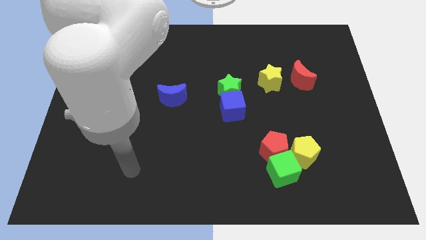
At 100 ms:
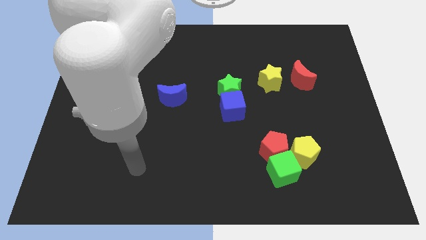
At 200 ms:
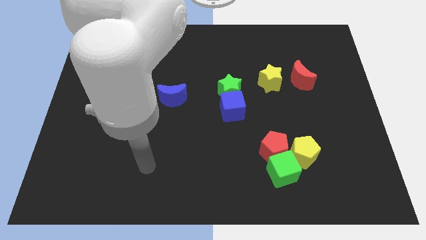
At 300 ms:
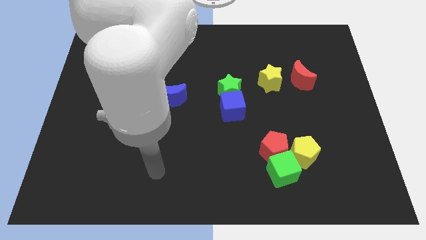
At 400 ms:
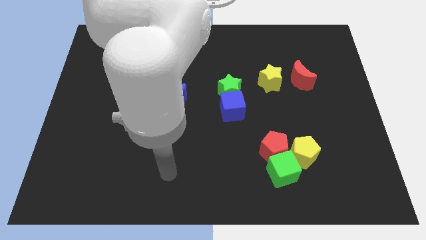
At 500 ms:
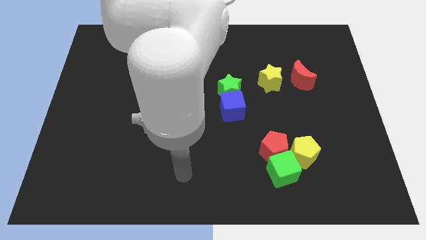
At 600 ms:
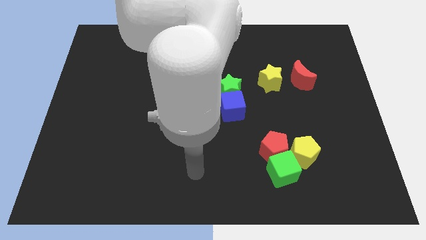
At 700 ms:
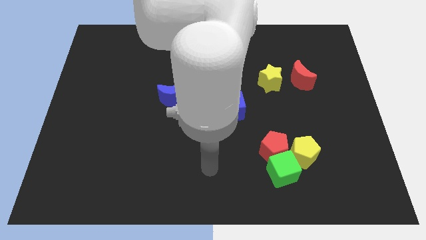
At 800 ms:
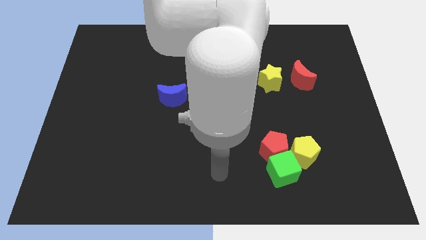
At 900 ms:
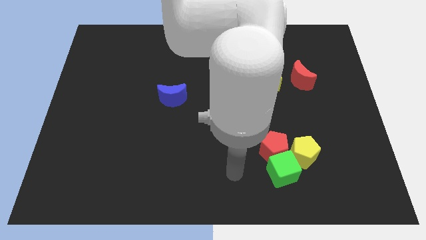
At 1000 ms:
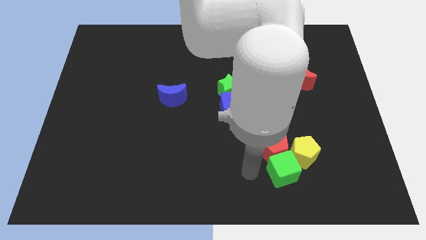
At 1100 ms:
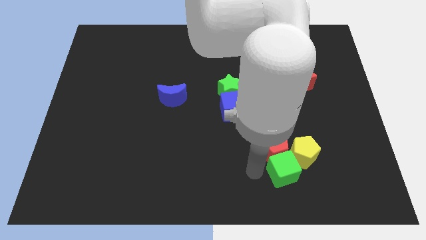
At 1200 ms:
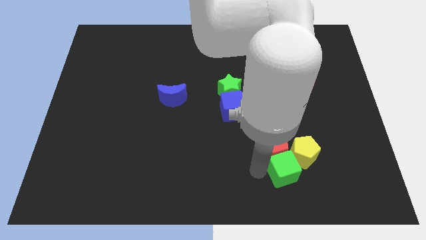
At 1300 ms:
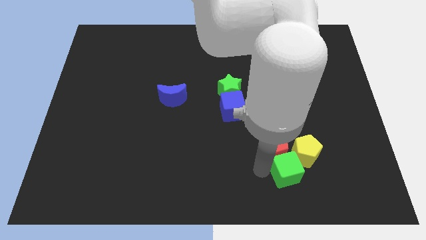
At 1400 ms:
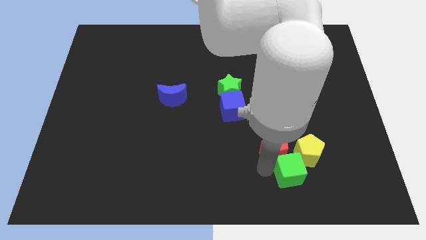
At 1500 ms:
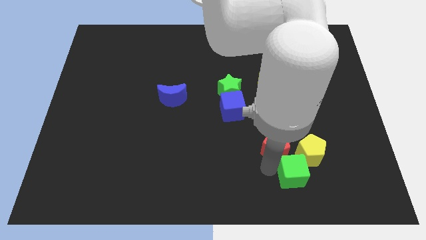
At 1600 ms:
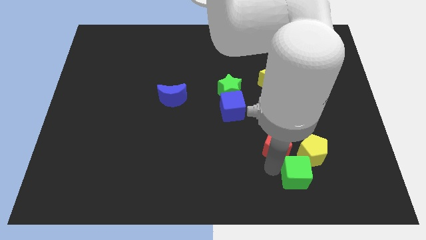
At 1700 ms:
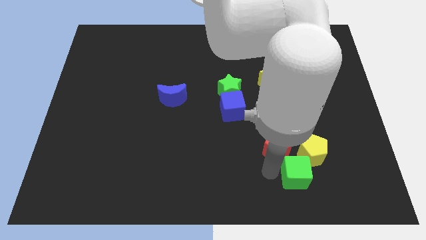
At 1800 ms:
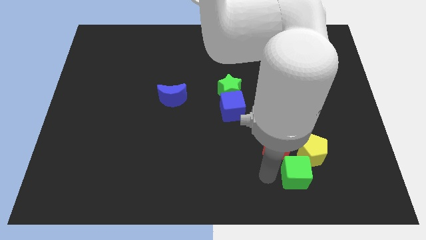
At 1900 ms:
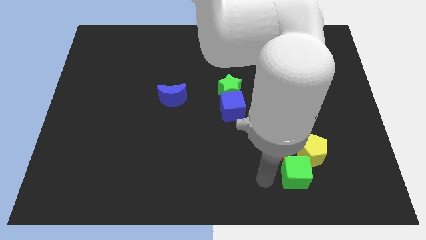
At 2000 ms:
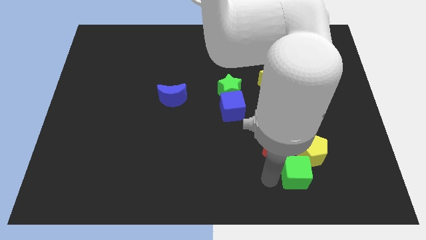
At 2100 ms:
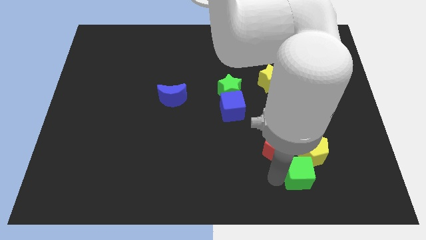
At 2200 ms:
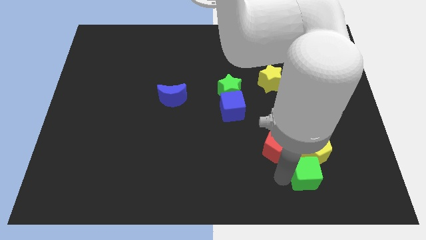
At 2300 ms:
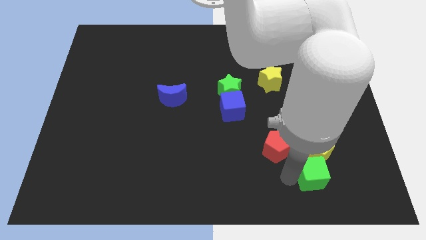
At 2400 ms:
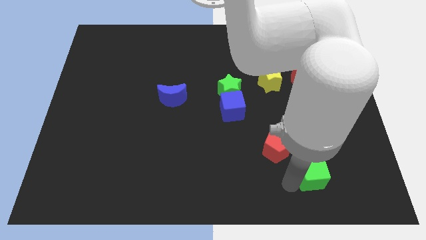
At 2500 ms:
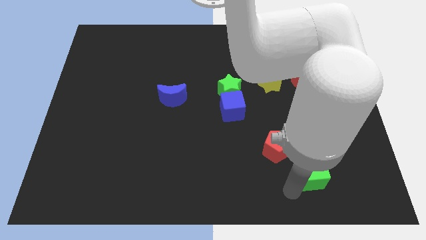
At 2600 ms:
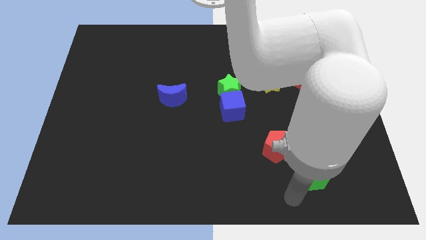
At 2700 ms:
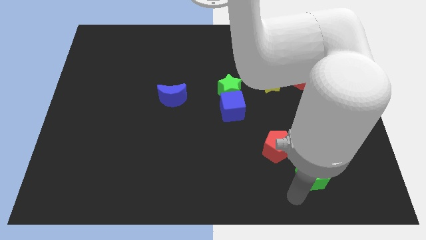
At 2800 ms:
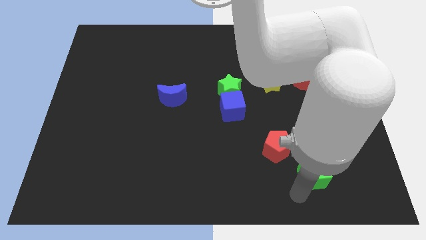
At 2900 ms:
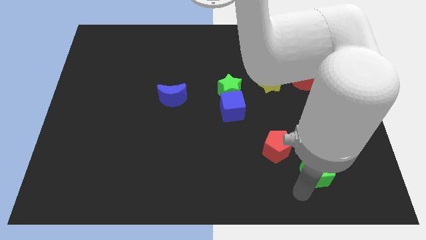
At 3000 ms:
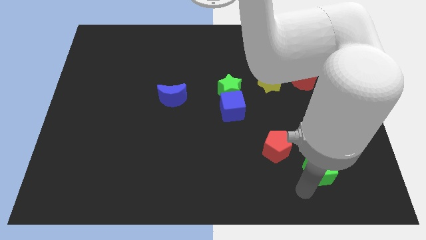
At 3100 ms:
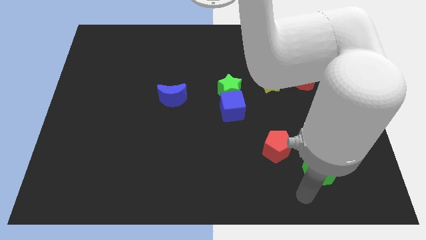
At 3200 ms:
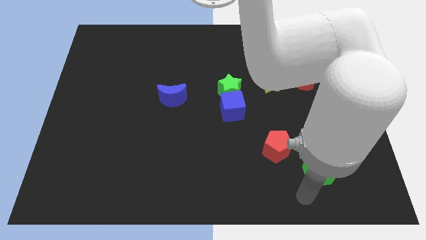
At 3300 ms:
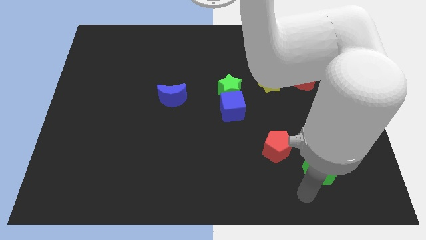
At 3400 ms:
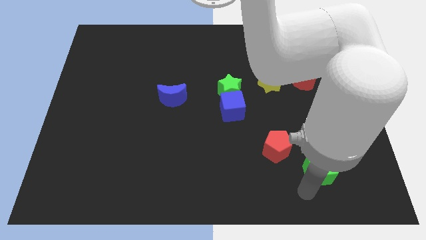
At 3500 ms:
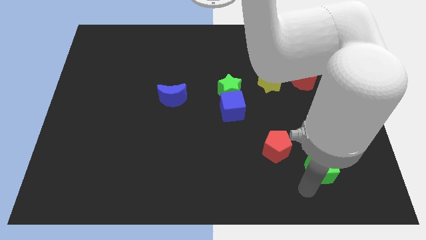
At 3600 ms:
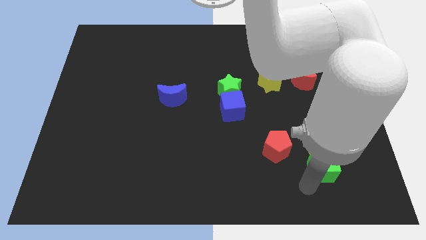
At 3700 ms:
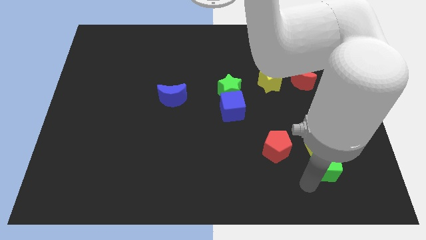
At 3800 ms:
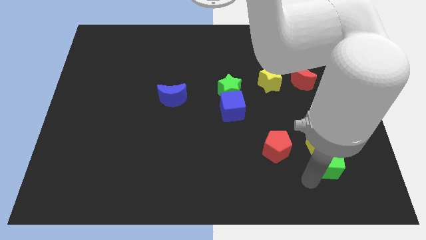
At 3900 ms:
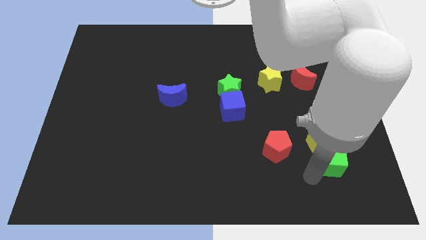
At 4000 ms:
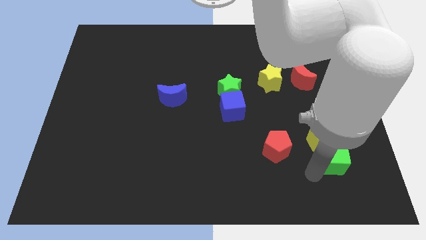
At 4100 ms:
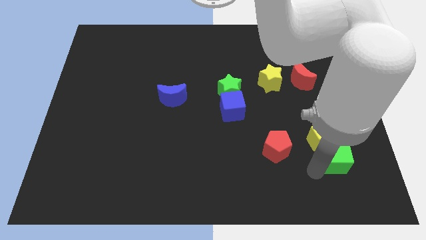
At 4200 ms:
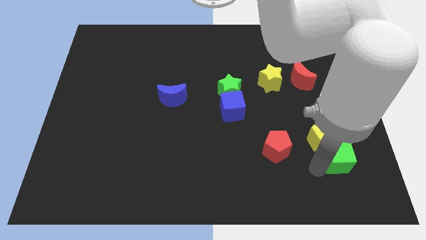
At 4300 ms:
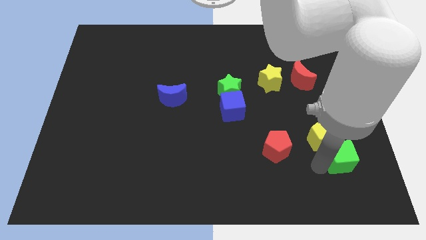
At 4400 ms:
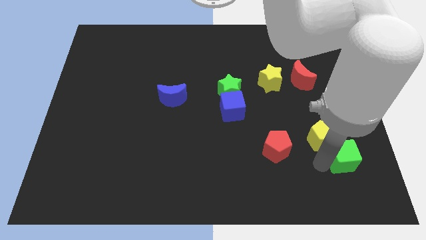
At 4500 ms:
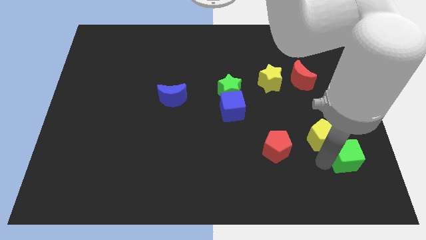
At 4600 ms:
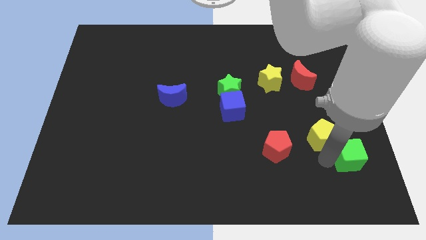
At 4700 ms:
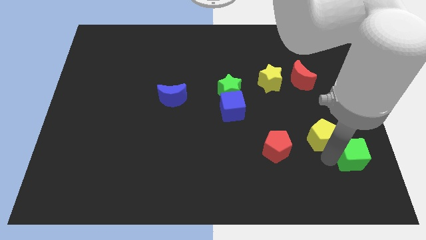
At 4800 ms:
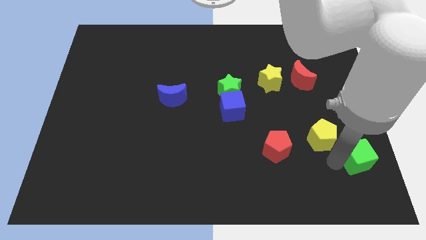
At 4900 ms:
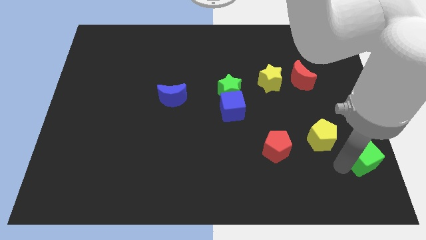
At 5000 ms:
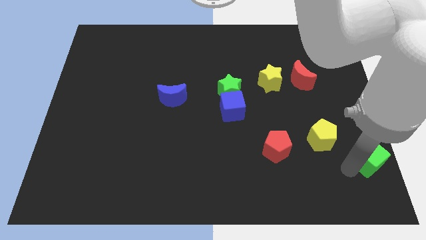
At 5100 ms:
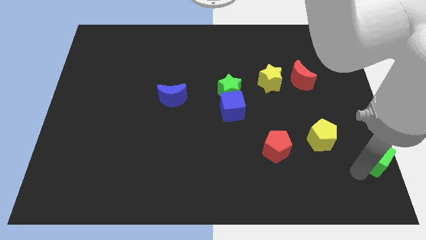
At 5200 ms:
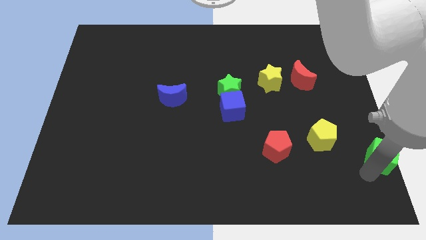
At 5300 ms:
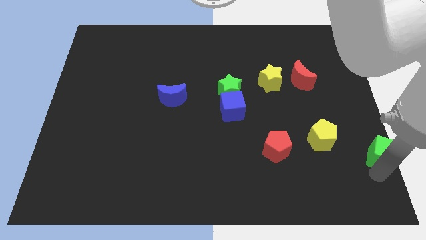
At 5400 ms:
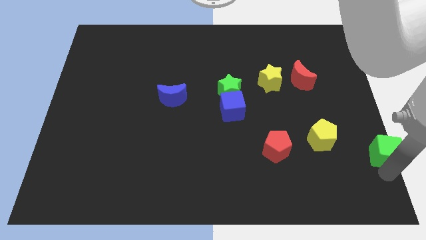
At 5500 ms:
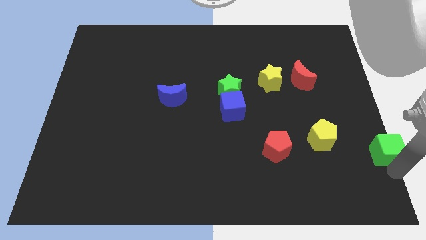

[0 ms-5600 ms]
move the green cube to the right side of the board

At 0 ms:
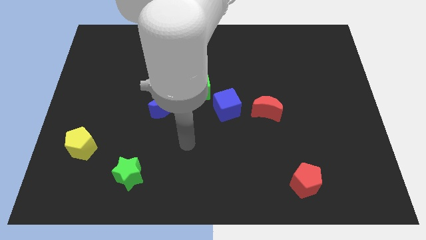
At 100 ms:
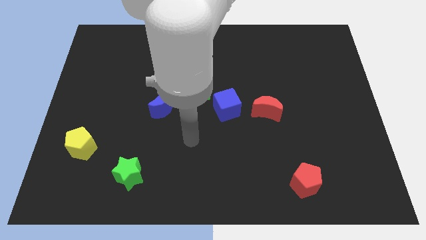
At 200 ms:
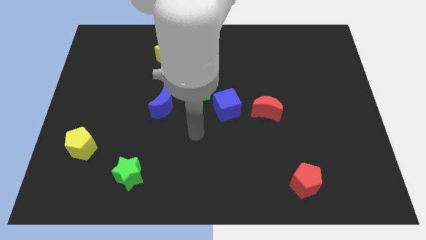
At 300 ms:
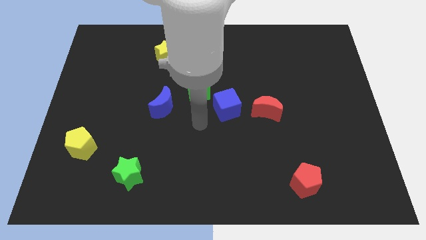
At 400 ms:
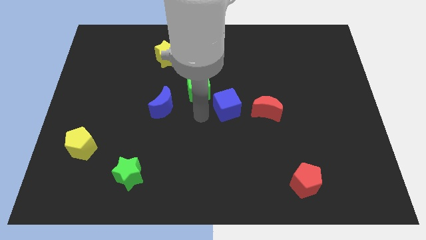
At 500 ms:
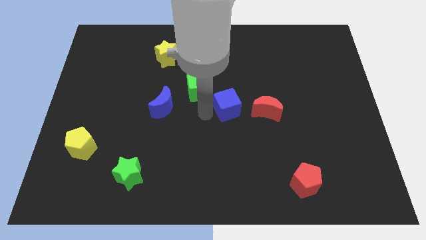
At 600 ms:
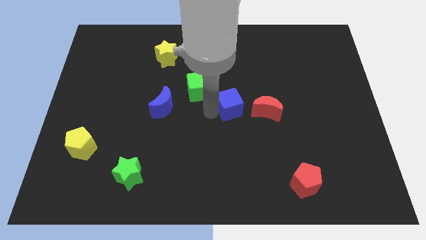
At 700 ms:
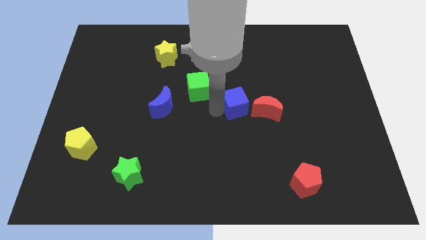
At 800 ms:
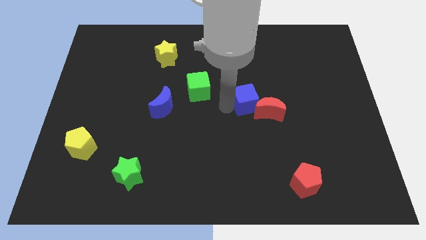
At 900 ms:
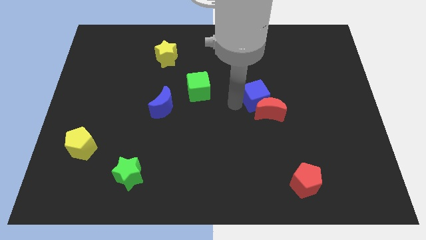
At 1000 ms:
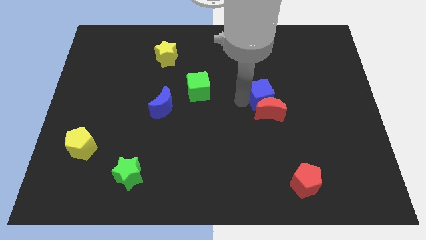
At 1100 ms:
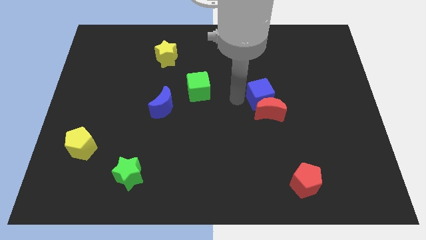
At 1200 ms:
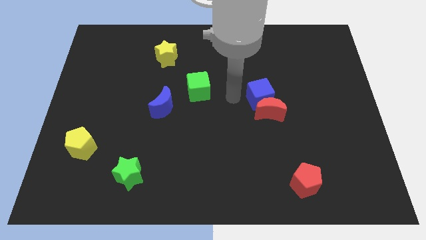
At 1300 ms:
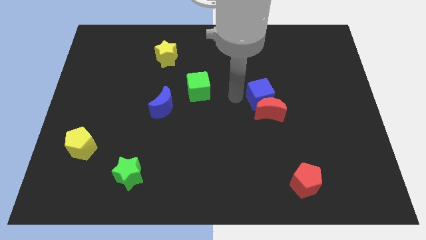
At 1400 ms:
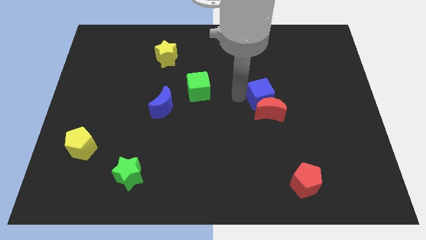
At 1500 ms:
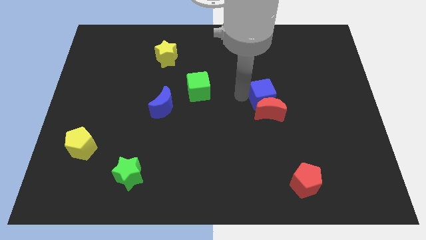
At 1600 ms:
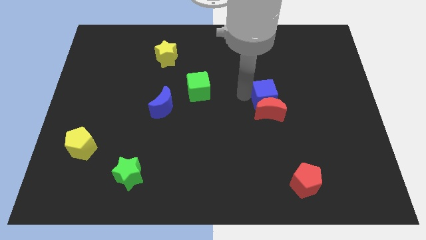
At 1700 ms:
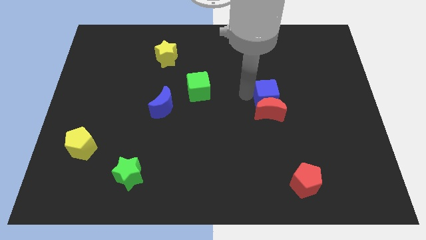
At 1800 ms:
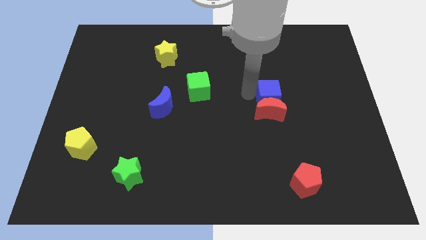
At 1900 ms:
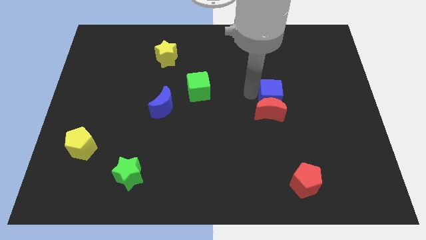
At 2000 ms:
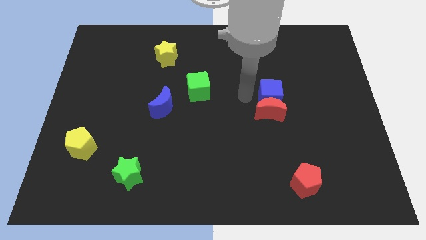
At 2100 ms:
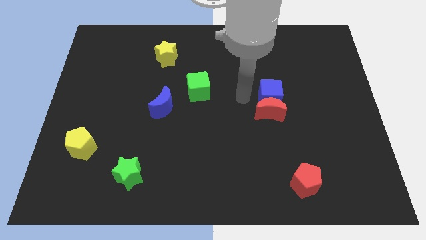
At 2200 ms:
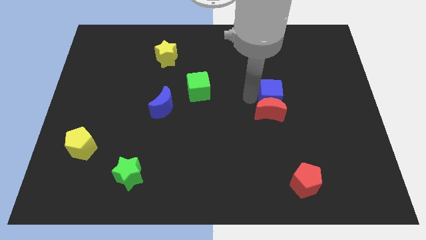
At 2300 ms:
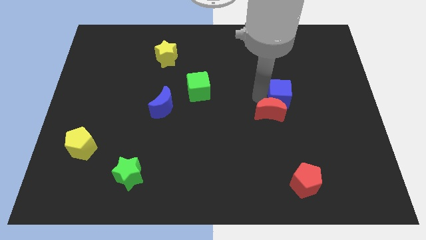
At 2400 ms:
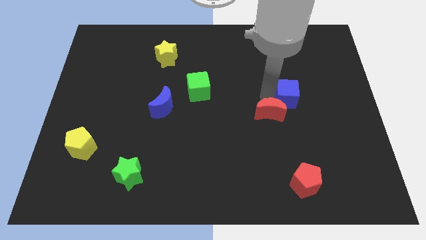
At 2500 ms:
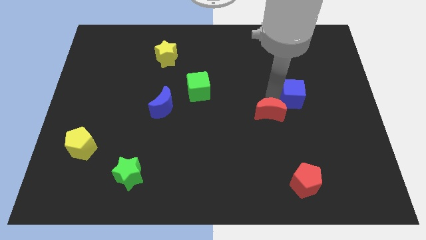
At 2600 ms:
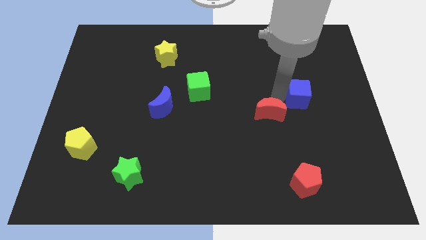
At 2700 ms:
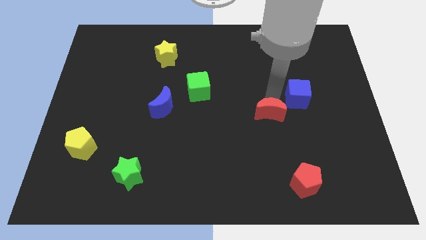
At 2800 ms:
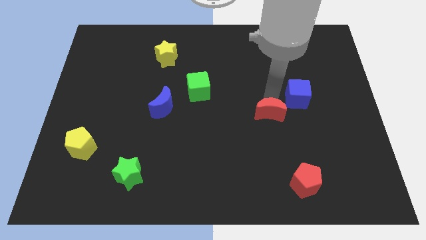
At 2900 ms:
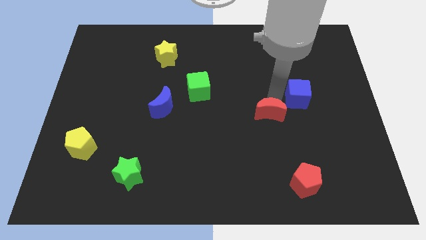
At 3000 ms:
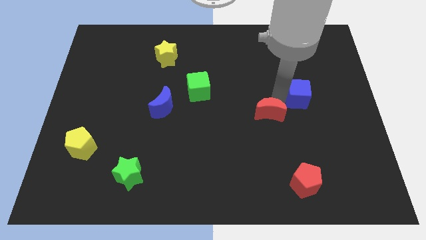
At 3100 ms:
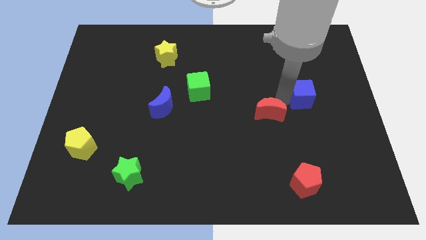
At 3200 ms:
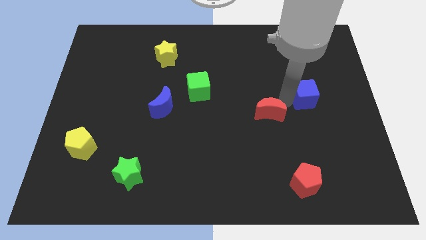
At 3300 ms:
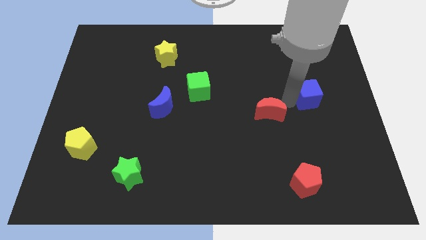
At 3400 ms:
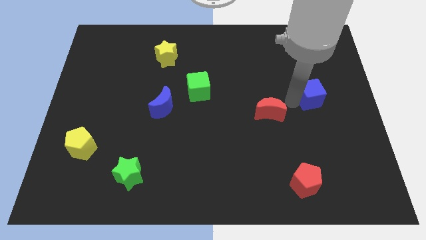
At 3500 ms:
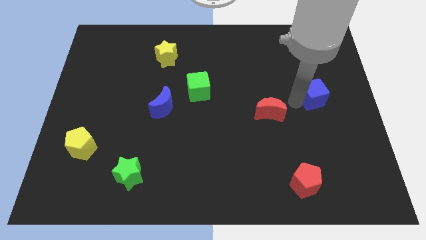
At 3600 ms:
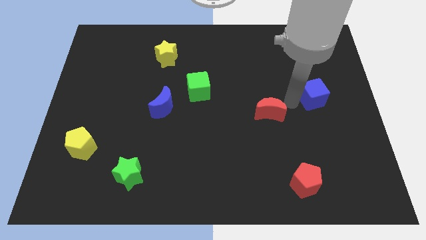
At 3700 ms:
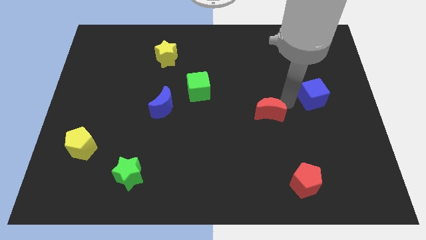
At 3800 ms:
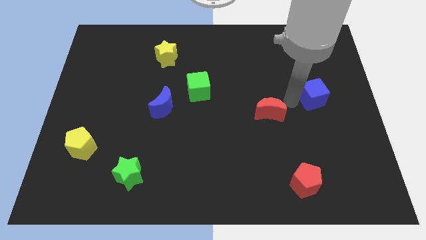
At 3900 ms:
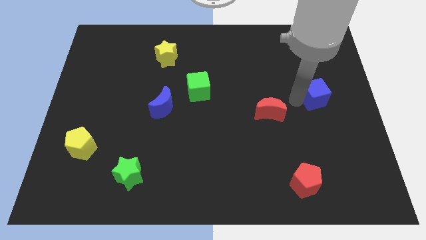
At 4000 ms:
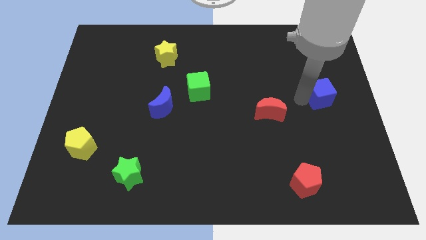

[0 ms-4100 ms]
slide the blue cube to the right side
